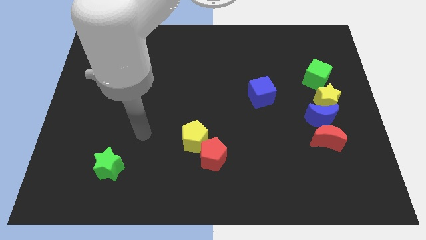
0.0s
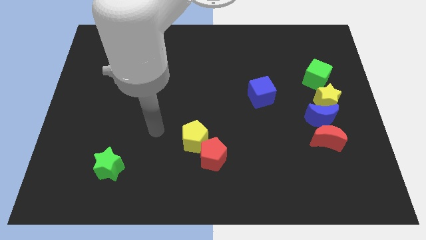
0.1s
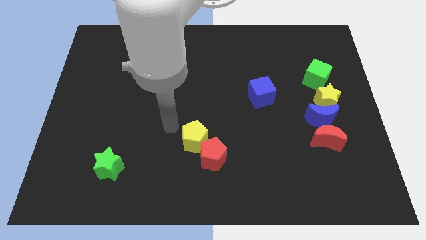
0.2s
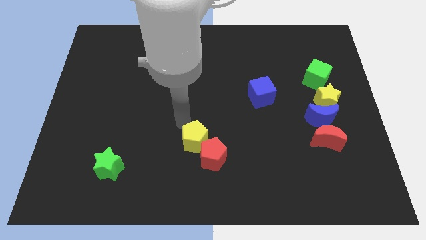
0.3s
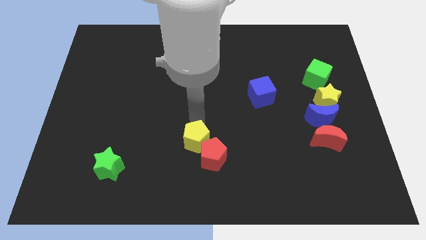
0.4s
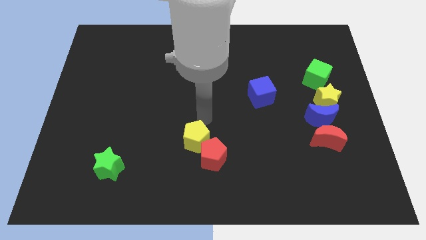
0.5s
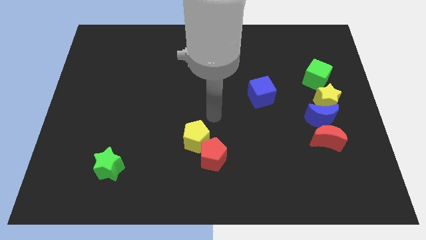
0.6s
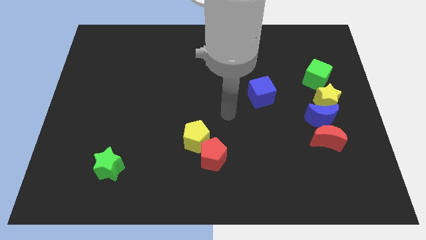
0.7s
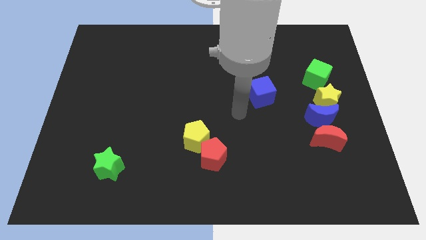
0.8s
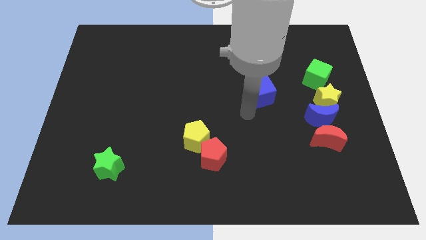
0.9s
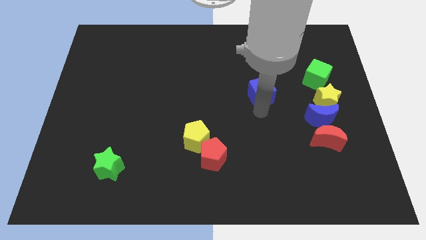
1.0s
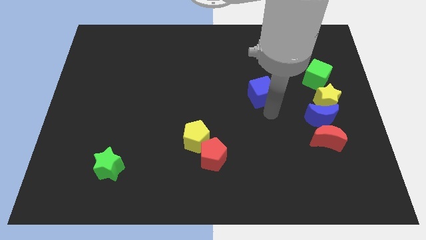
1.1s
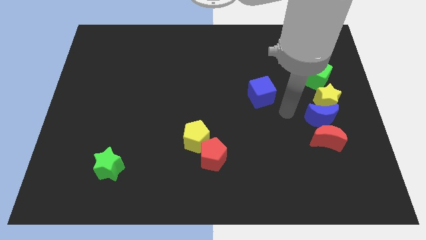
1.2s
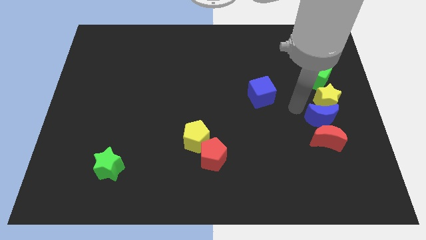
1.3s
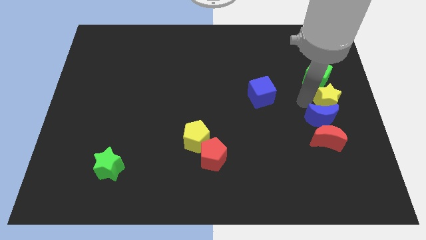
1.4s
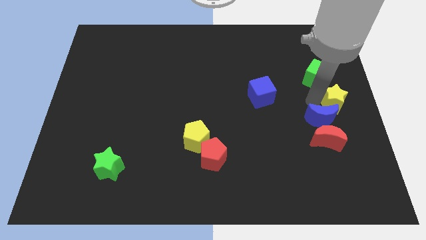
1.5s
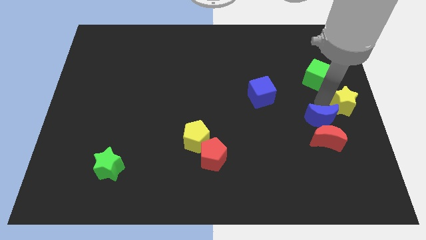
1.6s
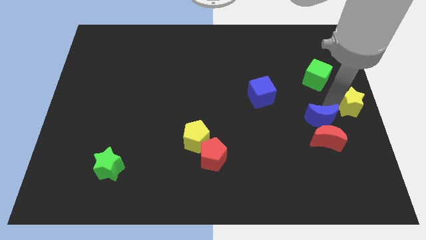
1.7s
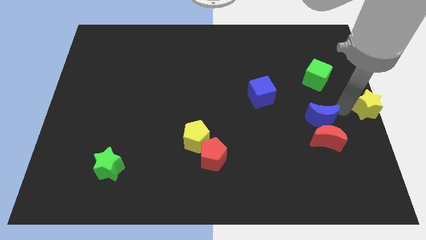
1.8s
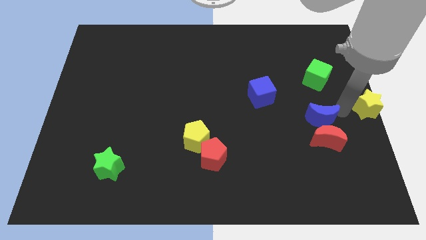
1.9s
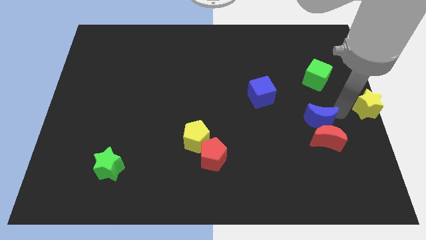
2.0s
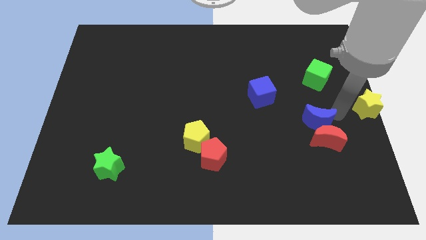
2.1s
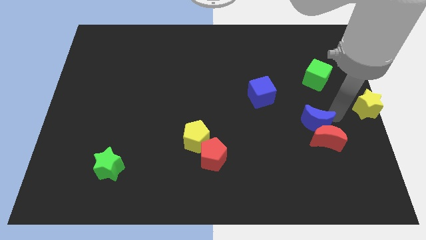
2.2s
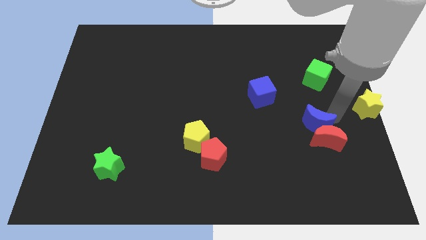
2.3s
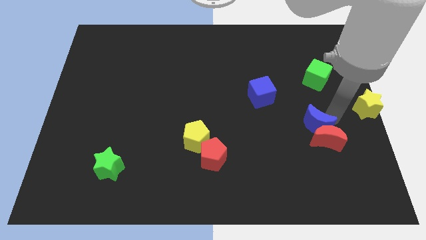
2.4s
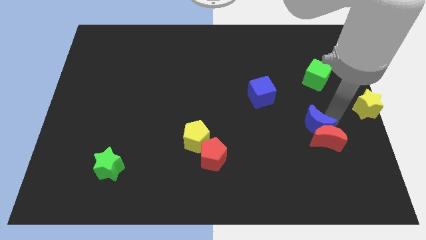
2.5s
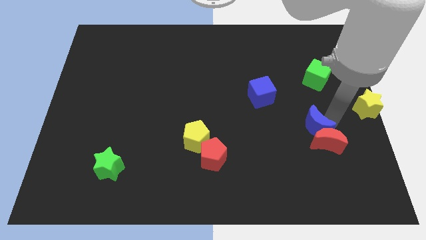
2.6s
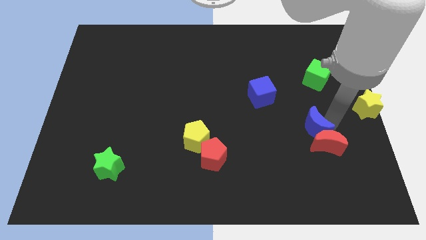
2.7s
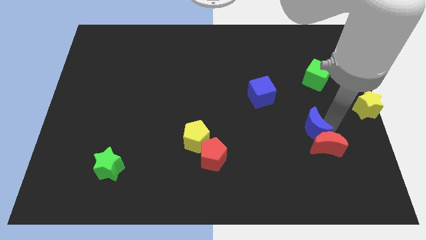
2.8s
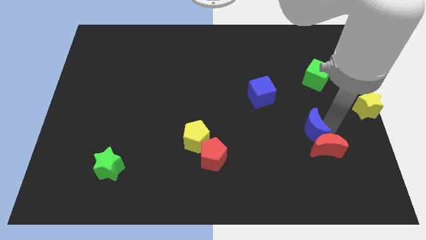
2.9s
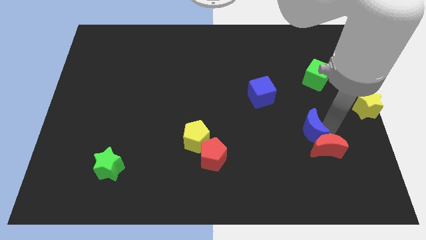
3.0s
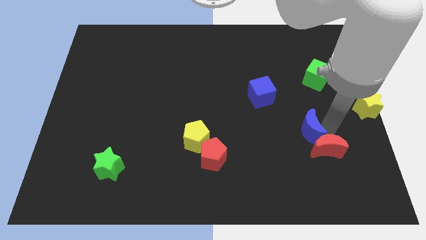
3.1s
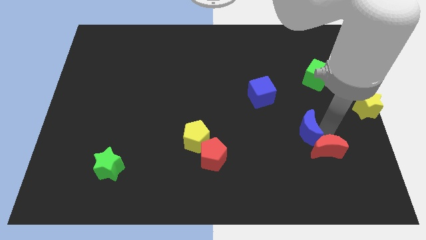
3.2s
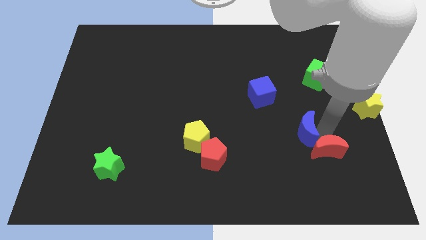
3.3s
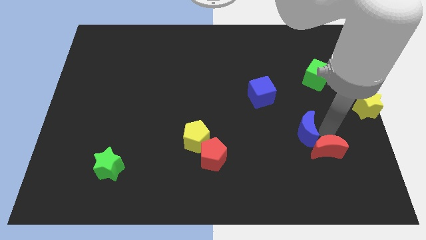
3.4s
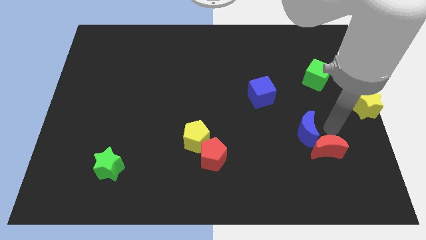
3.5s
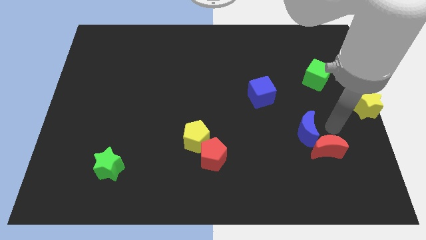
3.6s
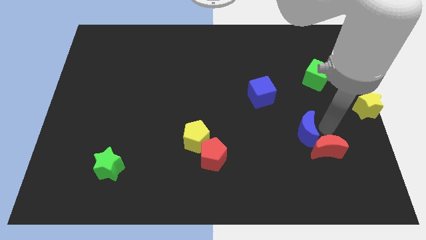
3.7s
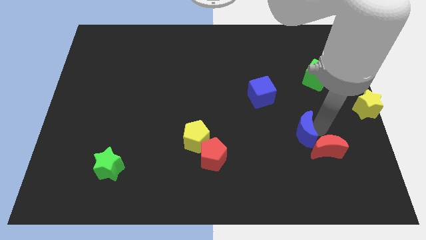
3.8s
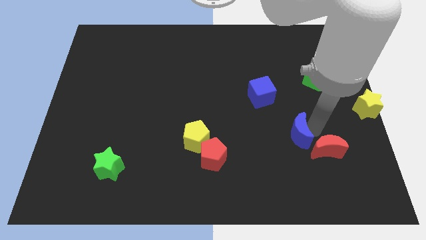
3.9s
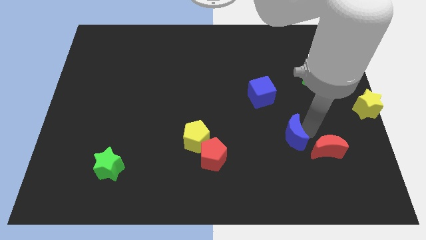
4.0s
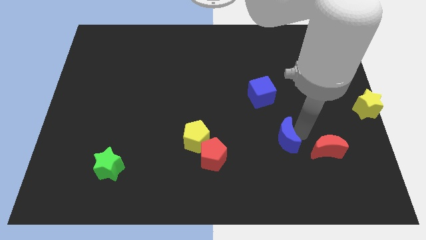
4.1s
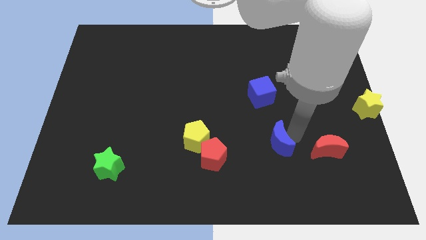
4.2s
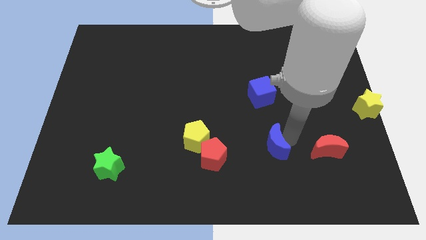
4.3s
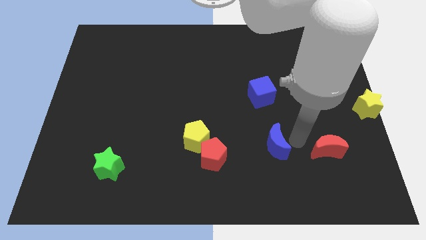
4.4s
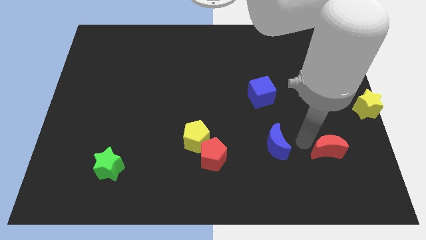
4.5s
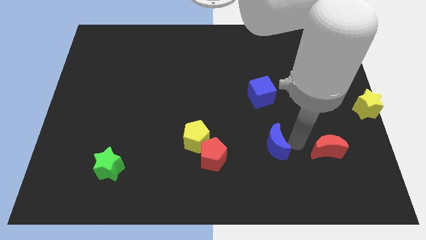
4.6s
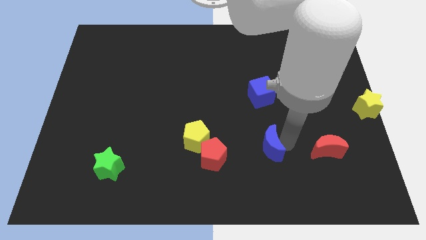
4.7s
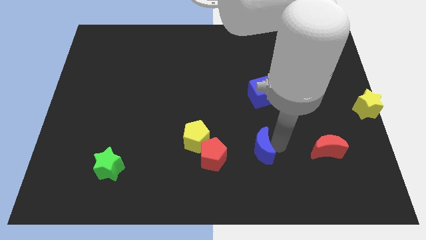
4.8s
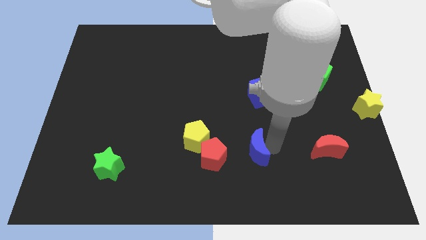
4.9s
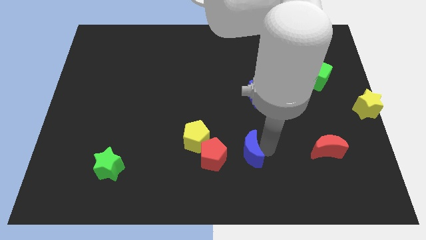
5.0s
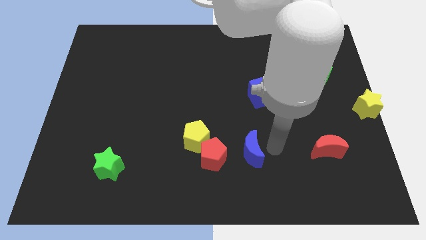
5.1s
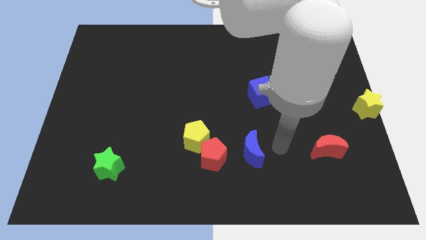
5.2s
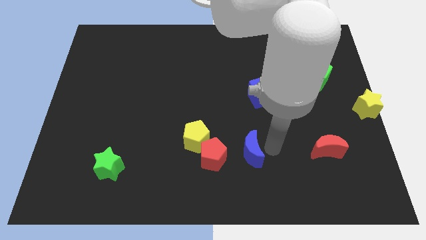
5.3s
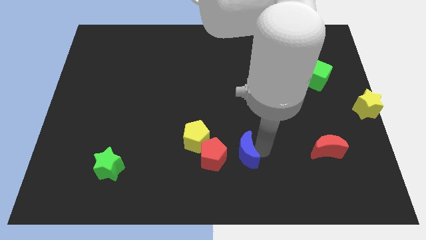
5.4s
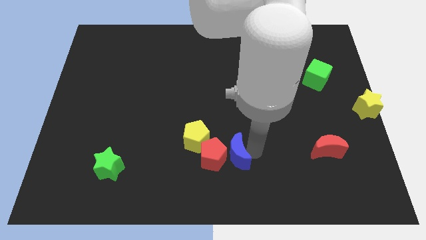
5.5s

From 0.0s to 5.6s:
put the blue moon towards the red pentagon

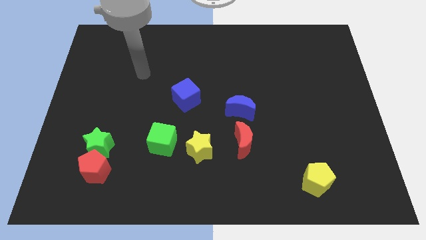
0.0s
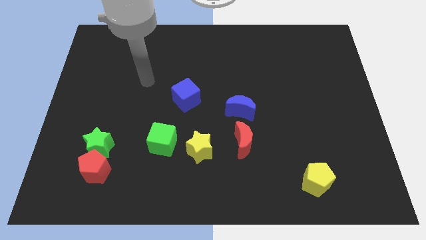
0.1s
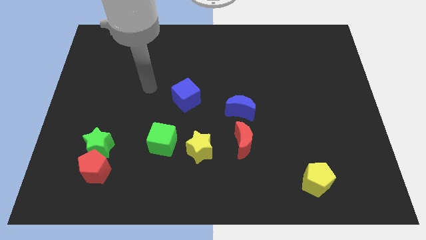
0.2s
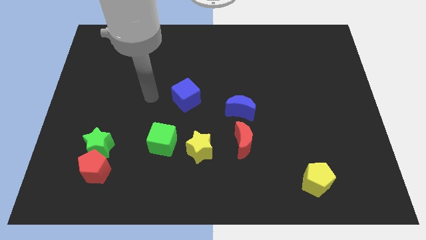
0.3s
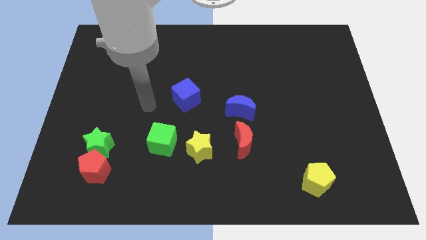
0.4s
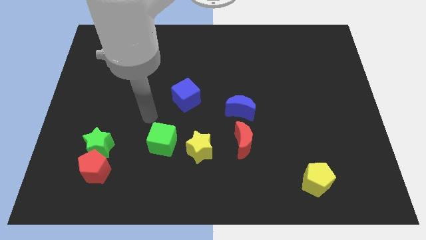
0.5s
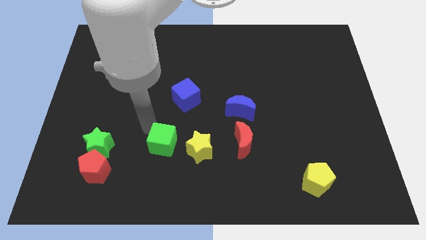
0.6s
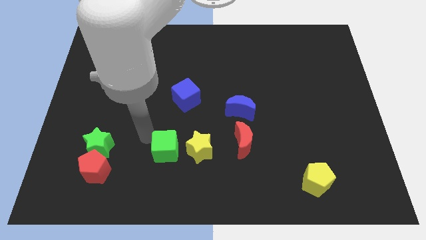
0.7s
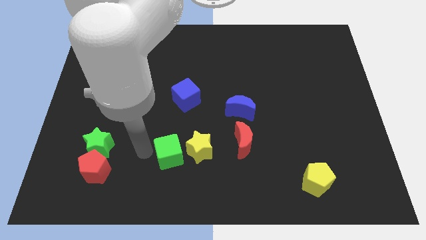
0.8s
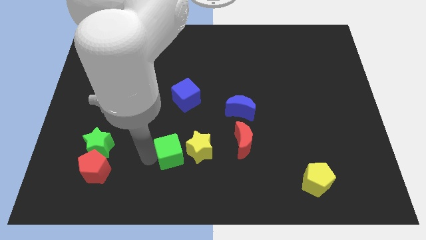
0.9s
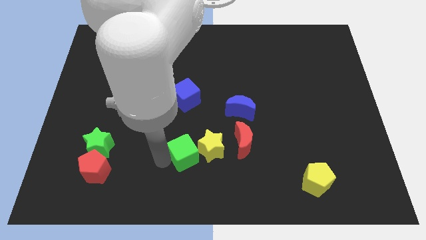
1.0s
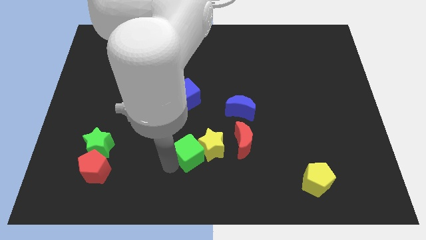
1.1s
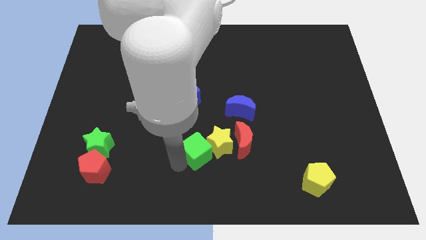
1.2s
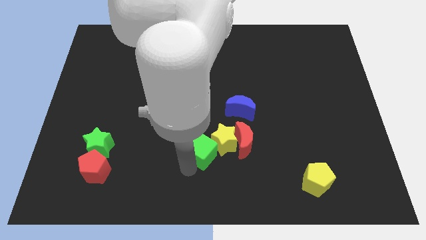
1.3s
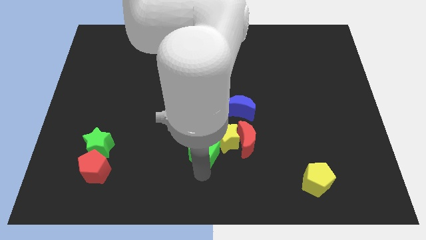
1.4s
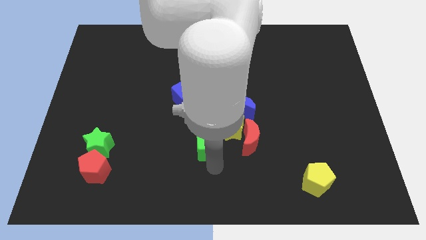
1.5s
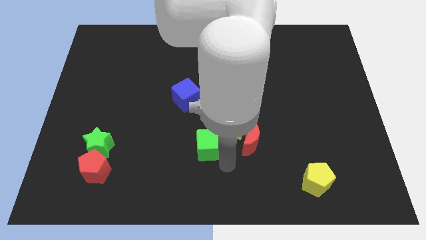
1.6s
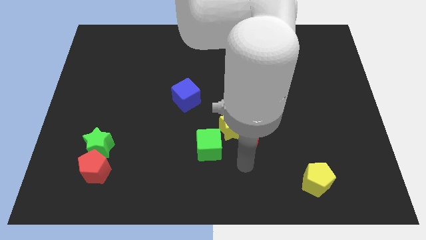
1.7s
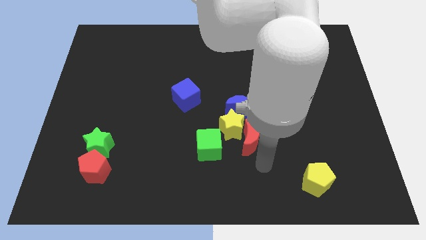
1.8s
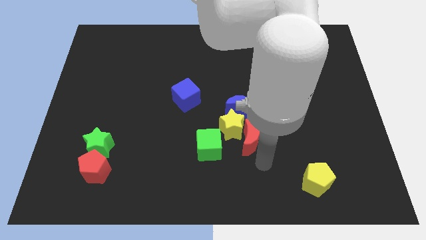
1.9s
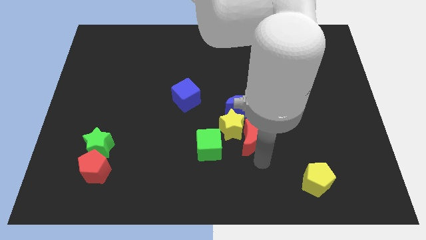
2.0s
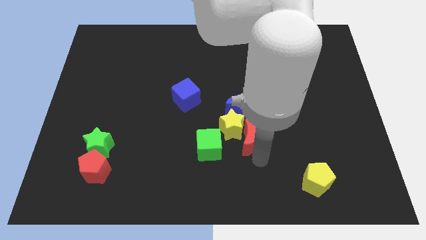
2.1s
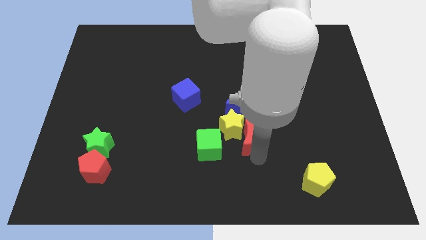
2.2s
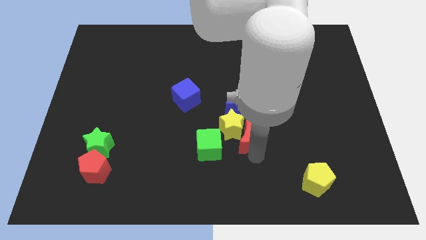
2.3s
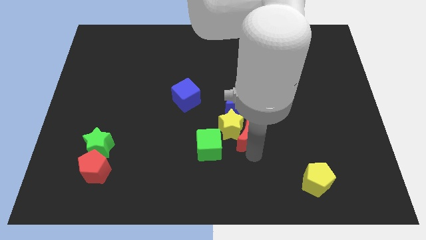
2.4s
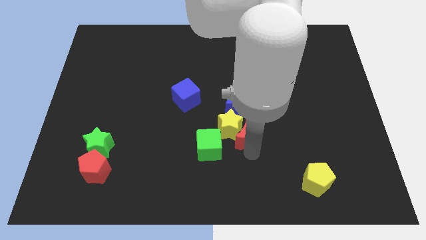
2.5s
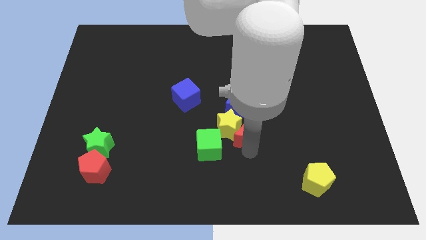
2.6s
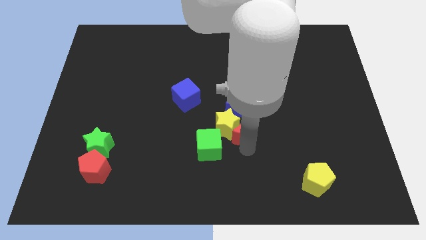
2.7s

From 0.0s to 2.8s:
move the red moon to the blue moon
